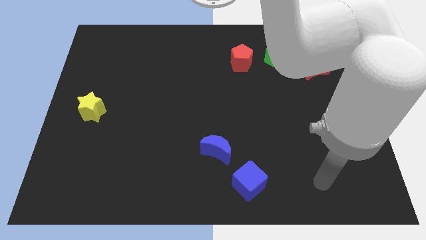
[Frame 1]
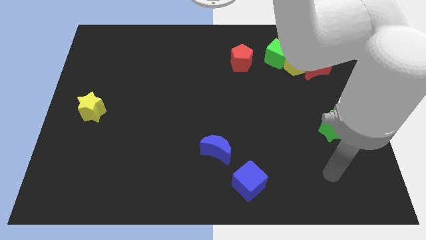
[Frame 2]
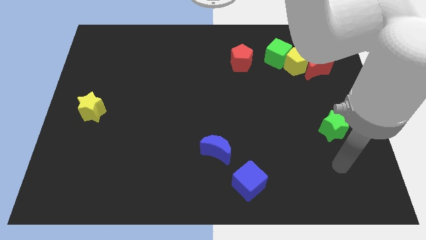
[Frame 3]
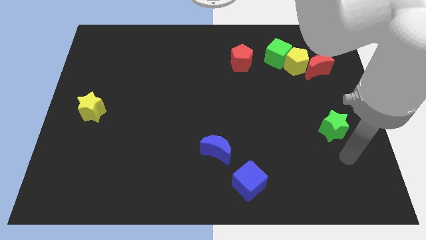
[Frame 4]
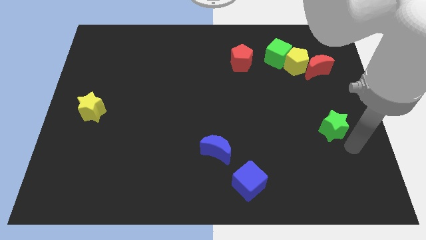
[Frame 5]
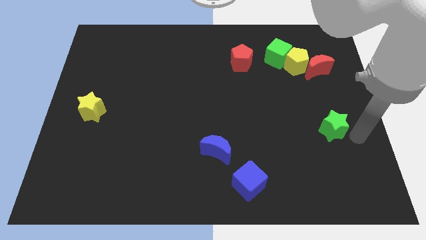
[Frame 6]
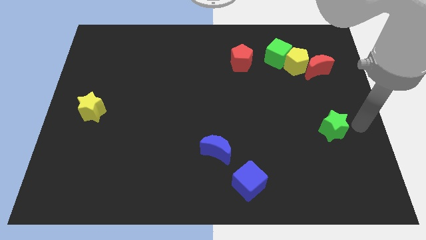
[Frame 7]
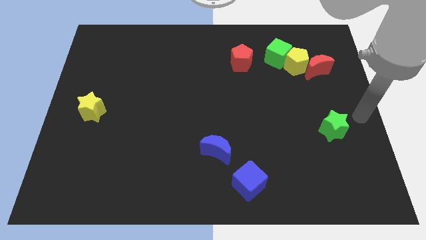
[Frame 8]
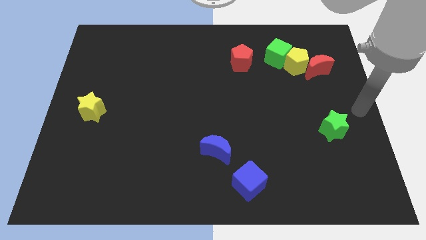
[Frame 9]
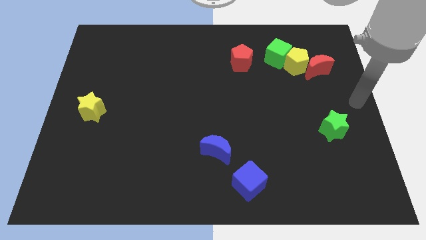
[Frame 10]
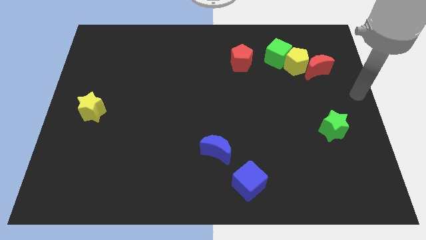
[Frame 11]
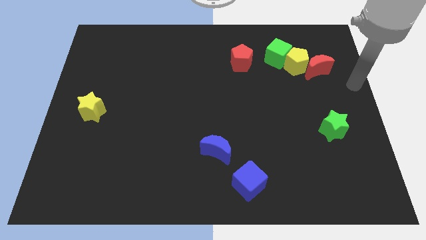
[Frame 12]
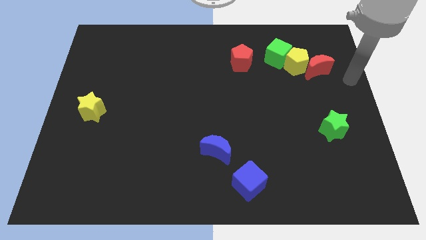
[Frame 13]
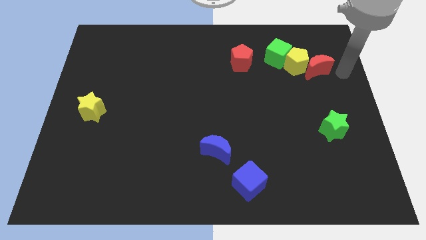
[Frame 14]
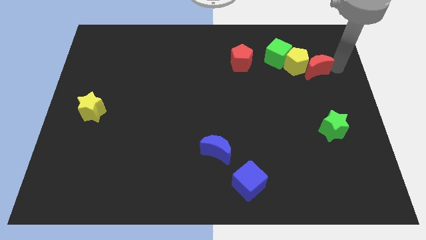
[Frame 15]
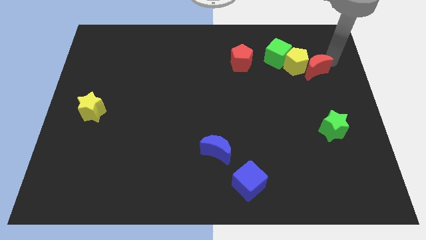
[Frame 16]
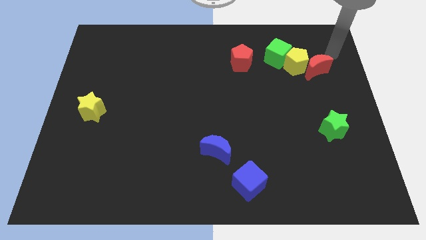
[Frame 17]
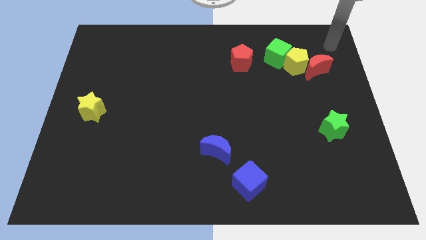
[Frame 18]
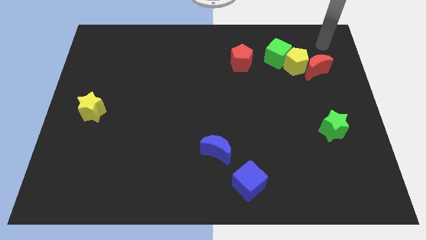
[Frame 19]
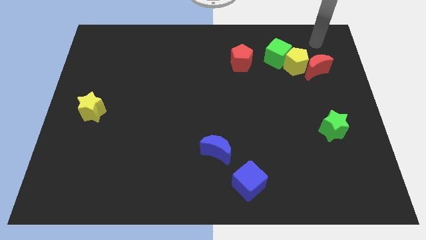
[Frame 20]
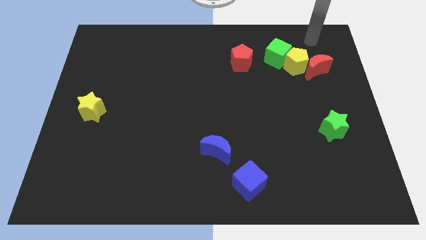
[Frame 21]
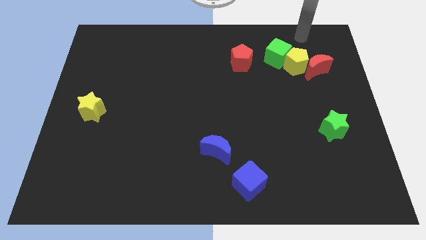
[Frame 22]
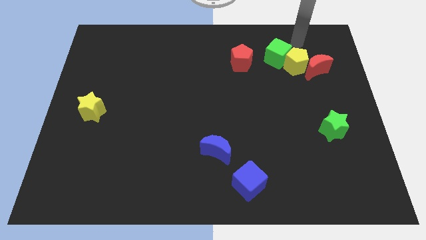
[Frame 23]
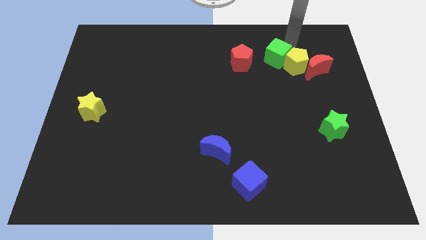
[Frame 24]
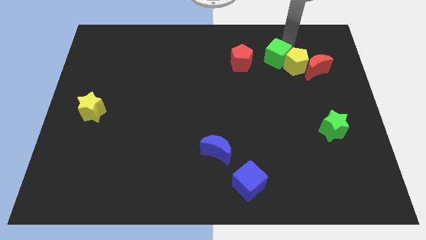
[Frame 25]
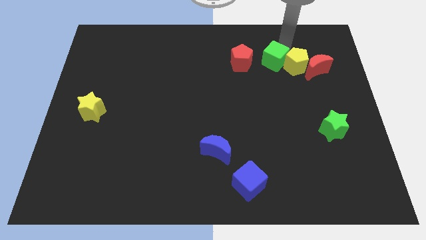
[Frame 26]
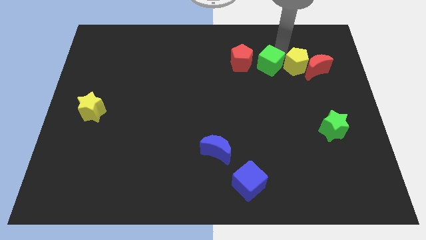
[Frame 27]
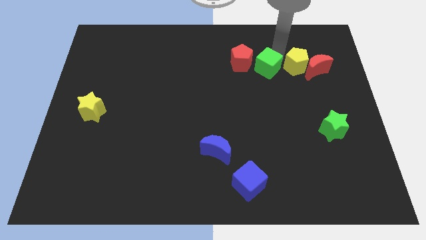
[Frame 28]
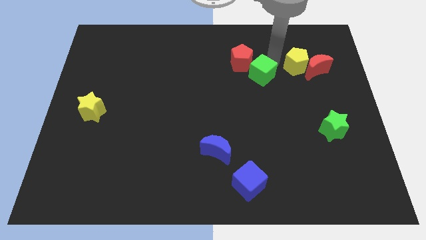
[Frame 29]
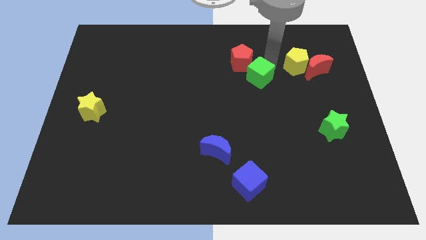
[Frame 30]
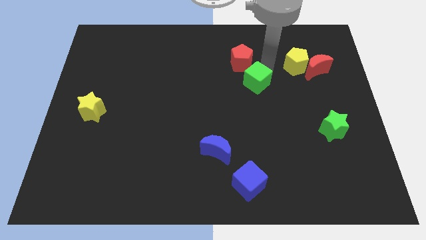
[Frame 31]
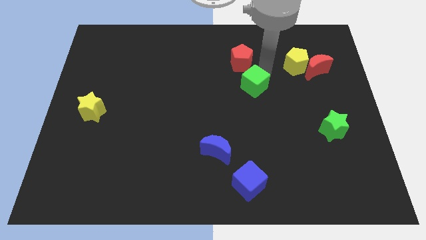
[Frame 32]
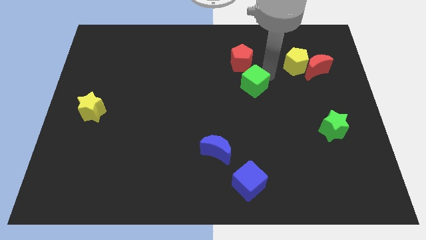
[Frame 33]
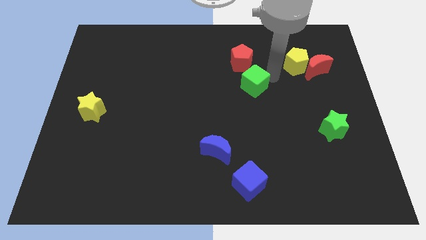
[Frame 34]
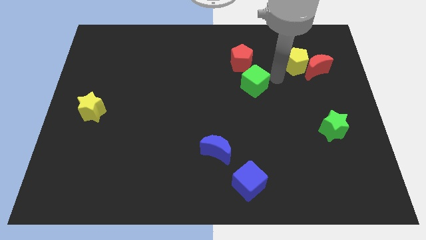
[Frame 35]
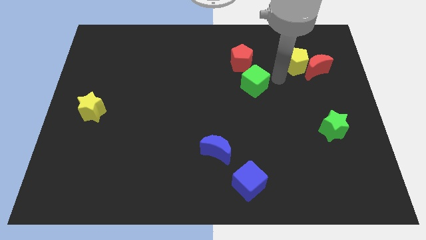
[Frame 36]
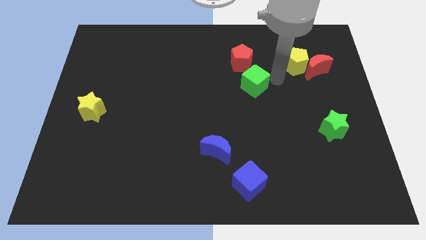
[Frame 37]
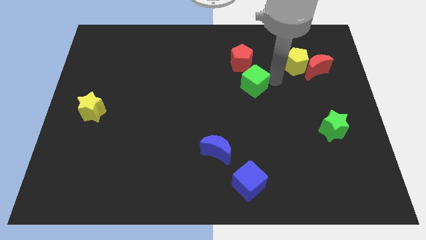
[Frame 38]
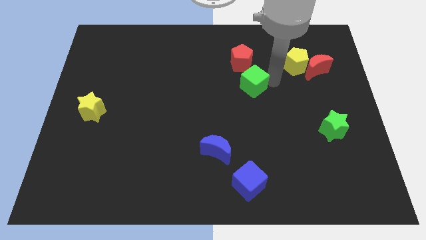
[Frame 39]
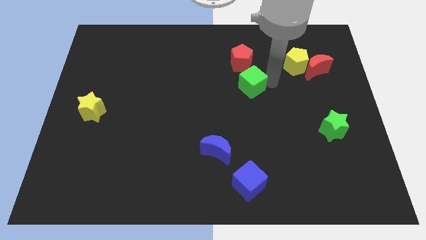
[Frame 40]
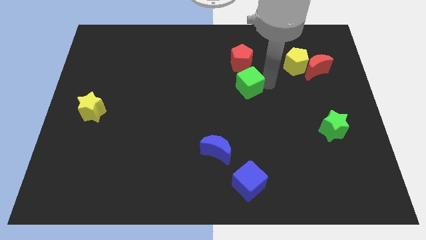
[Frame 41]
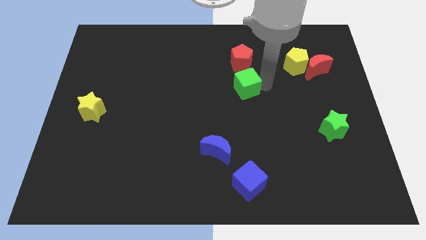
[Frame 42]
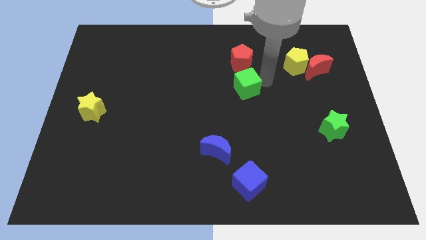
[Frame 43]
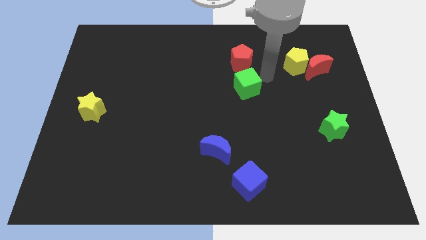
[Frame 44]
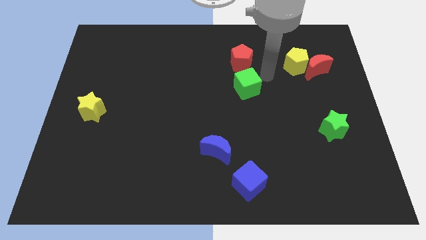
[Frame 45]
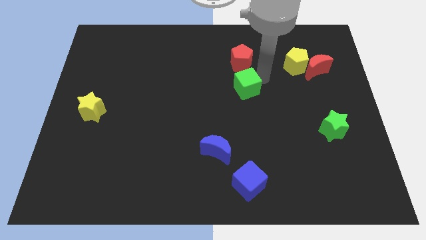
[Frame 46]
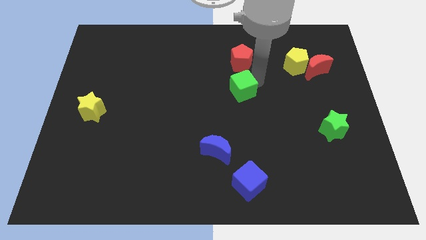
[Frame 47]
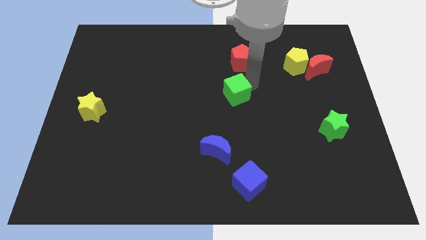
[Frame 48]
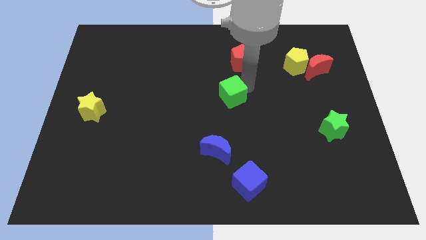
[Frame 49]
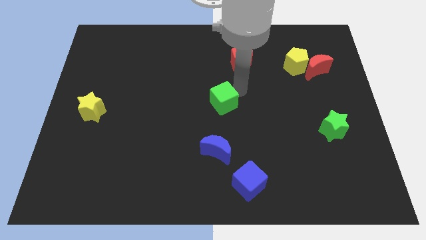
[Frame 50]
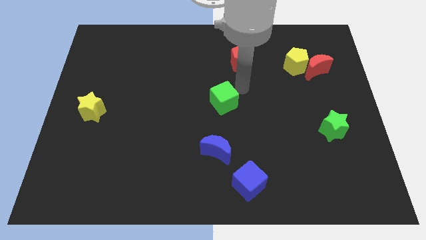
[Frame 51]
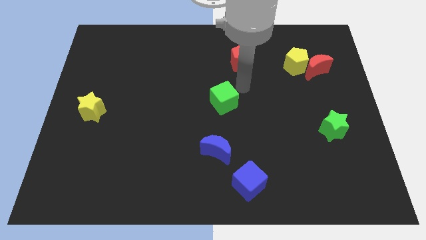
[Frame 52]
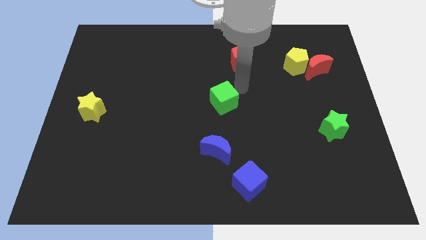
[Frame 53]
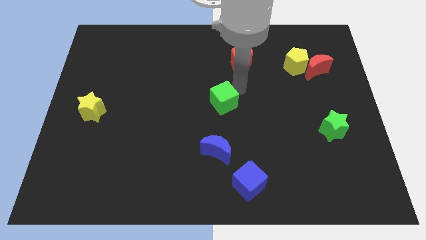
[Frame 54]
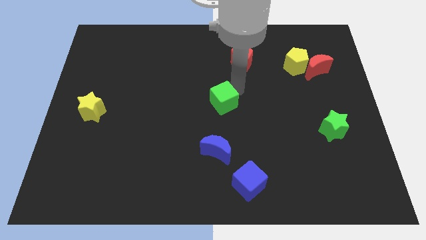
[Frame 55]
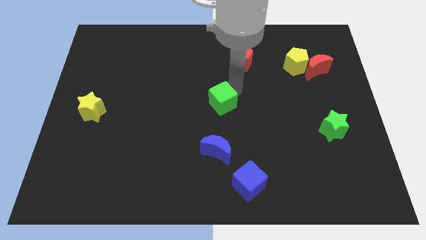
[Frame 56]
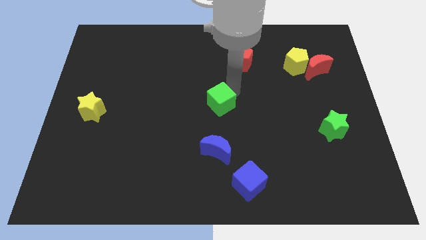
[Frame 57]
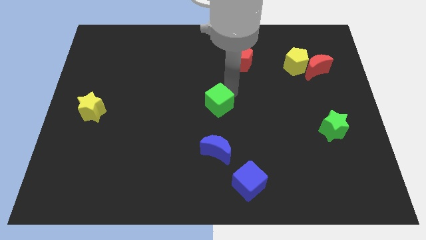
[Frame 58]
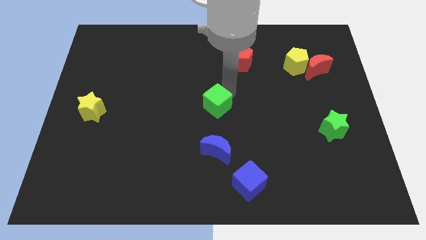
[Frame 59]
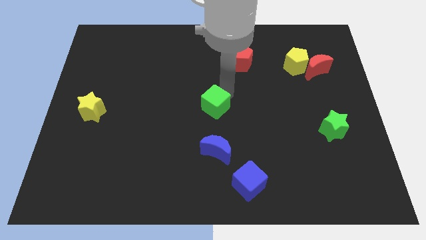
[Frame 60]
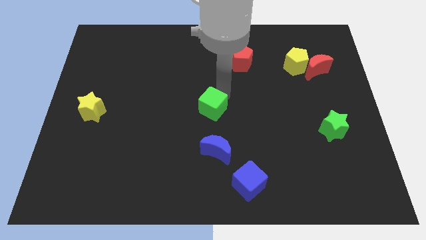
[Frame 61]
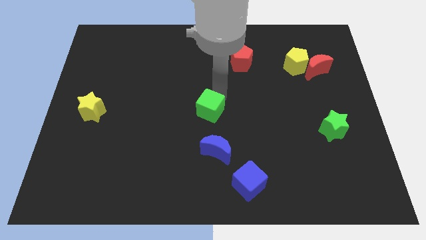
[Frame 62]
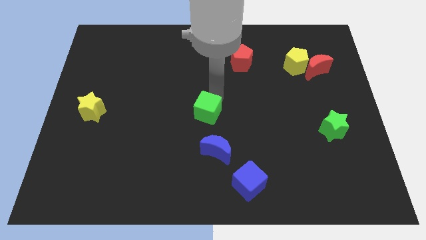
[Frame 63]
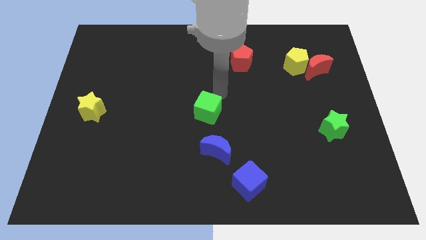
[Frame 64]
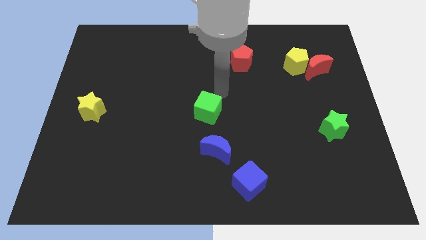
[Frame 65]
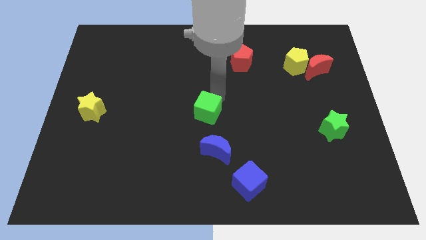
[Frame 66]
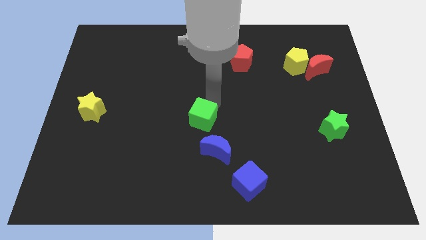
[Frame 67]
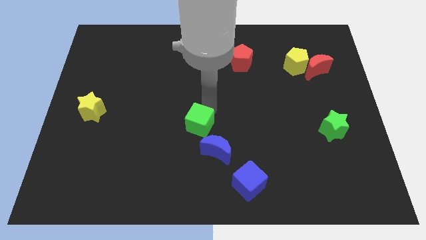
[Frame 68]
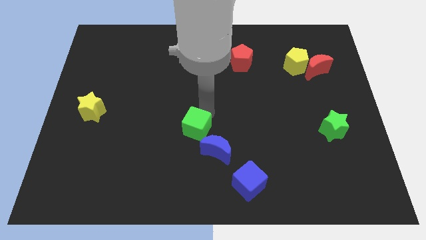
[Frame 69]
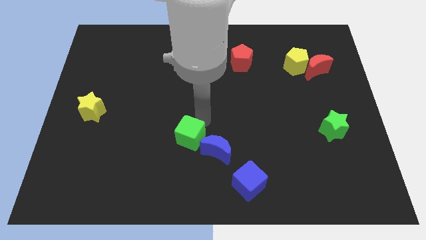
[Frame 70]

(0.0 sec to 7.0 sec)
move the green cube just left of the blue moon

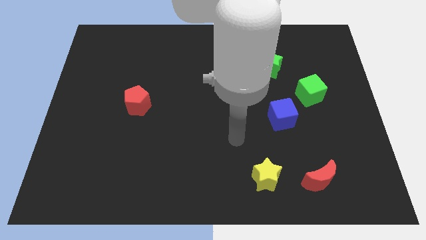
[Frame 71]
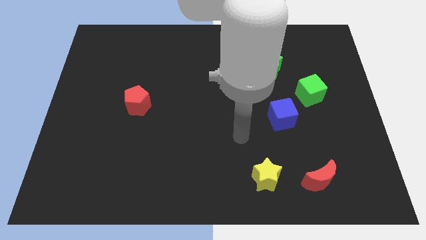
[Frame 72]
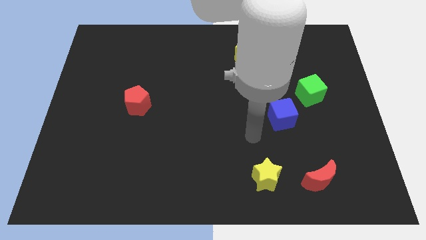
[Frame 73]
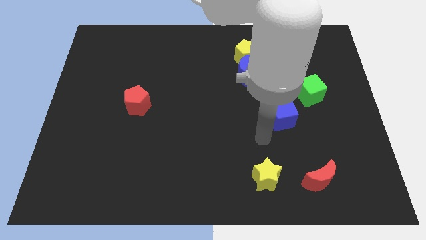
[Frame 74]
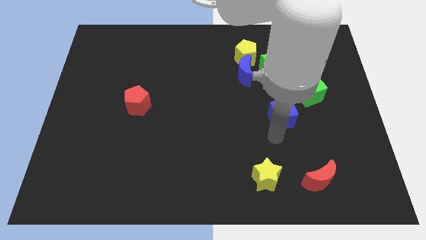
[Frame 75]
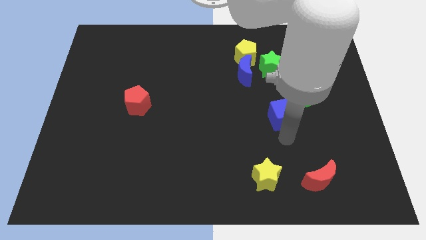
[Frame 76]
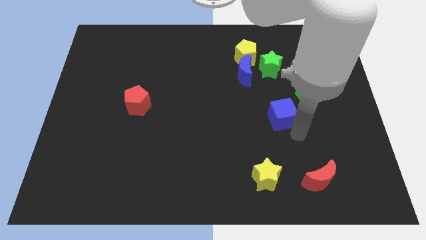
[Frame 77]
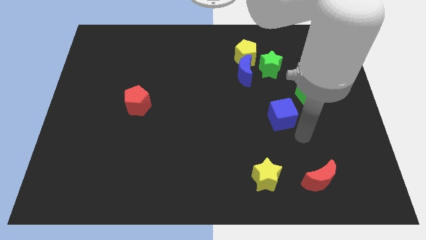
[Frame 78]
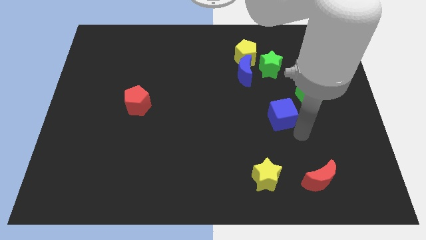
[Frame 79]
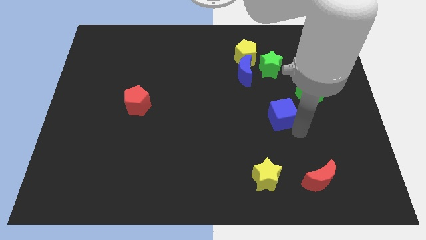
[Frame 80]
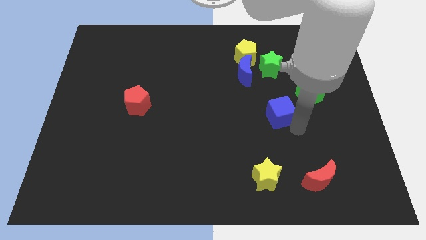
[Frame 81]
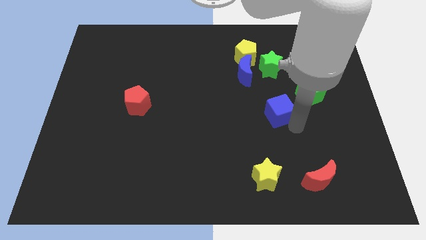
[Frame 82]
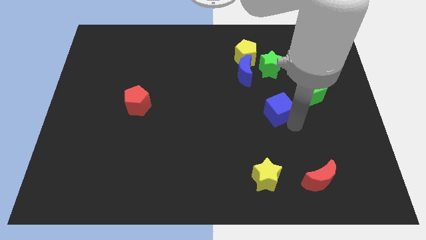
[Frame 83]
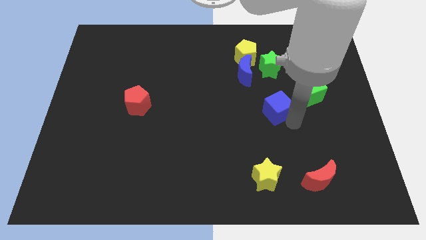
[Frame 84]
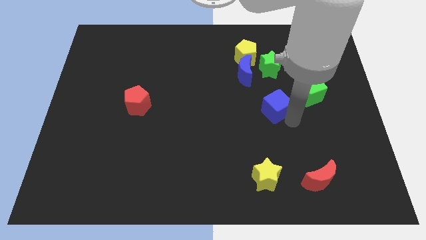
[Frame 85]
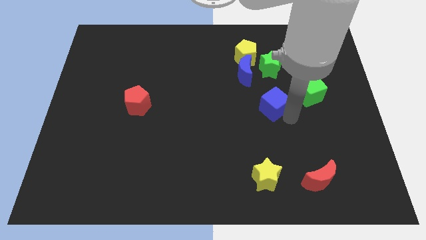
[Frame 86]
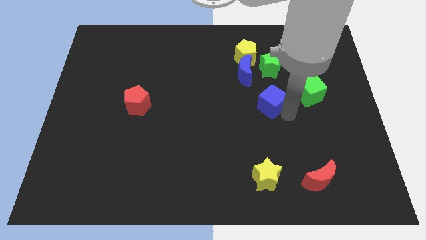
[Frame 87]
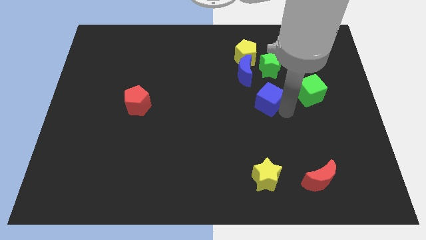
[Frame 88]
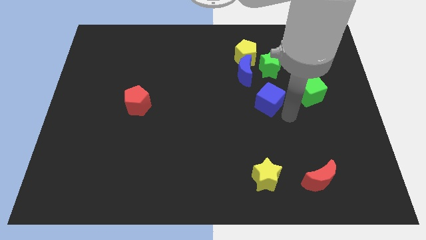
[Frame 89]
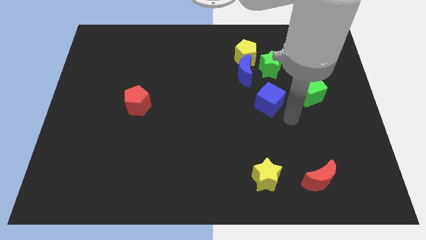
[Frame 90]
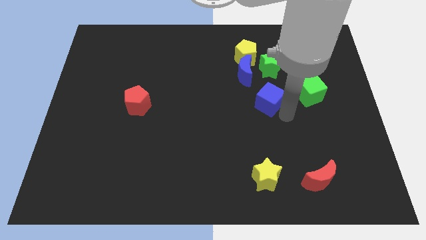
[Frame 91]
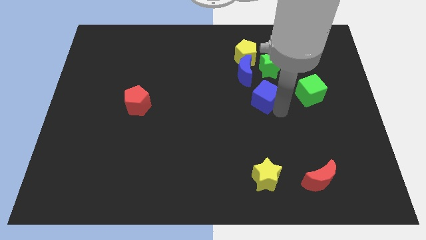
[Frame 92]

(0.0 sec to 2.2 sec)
put the blue cube to the bottom of the yellow pentagon
